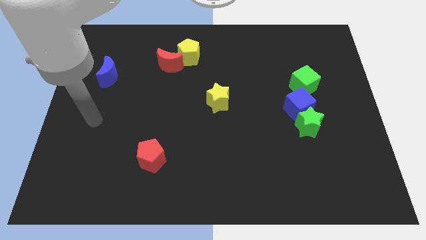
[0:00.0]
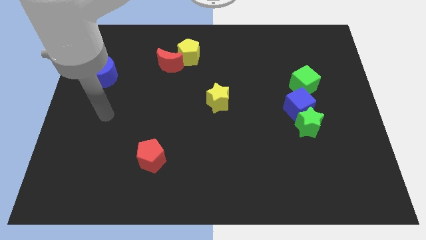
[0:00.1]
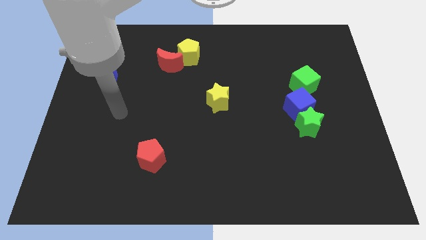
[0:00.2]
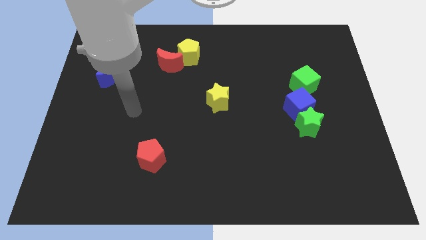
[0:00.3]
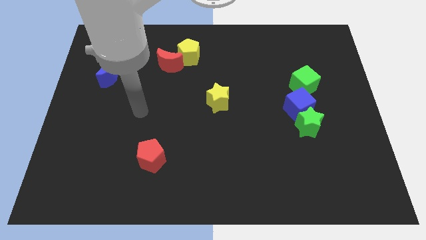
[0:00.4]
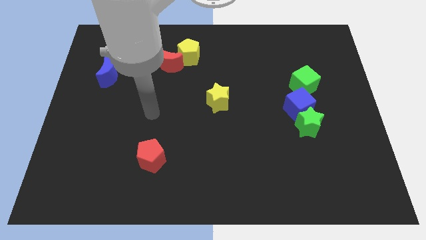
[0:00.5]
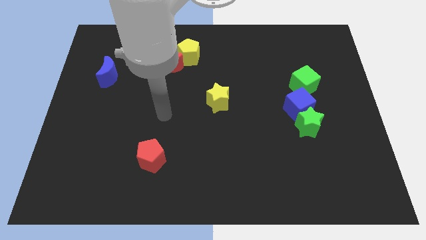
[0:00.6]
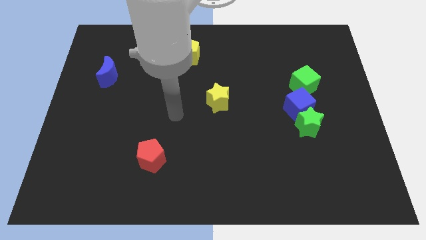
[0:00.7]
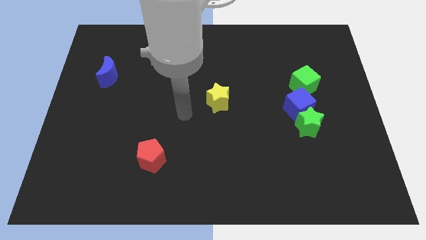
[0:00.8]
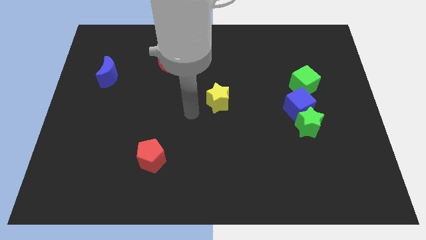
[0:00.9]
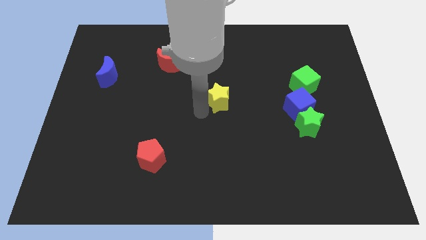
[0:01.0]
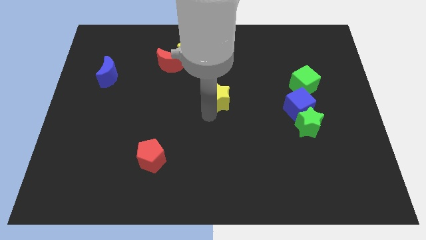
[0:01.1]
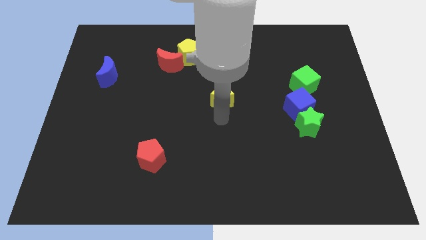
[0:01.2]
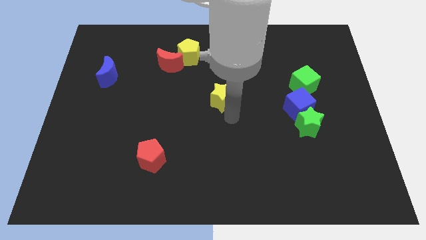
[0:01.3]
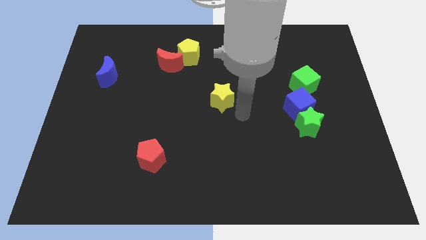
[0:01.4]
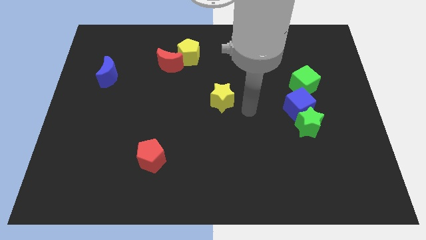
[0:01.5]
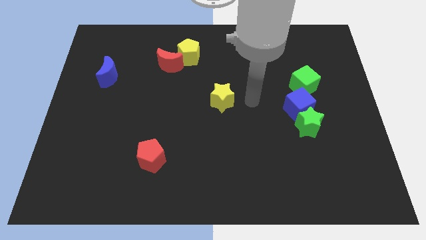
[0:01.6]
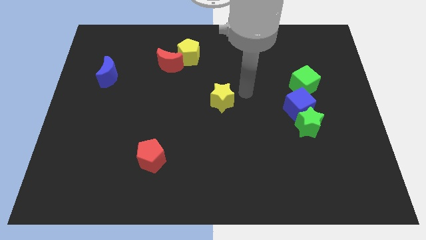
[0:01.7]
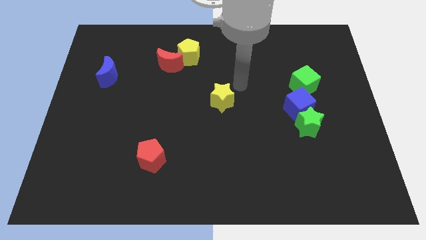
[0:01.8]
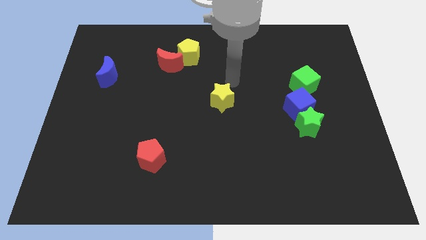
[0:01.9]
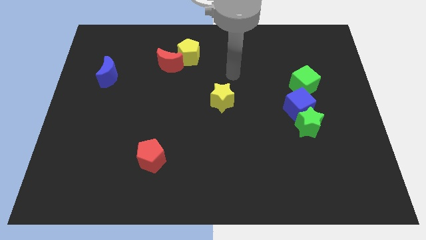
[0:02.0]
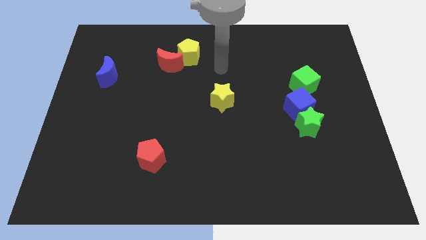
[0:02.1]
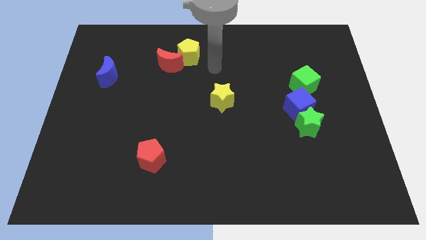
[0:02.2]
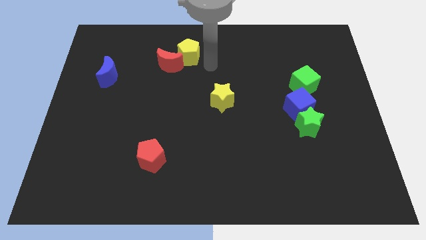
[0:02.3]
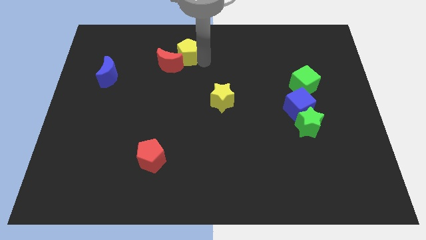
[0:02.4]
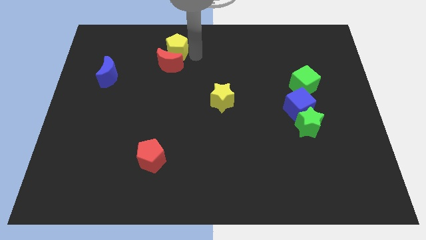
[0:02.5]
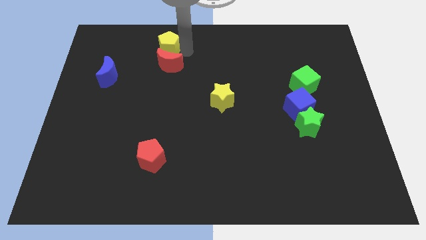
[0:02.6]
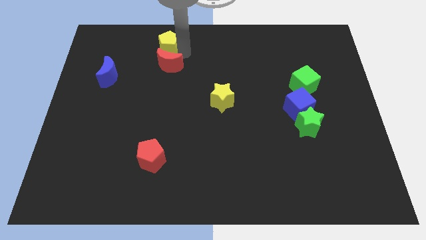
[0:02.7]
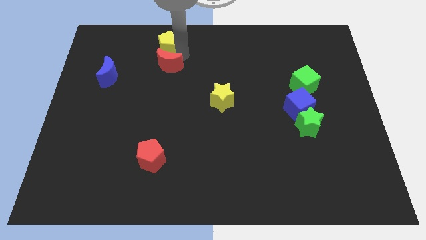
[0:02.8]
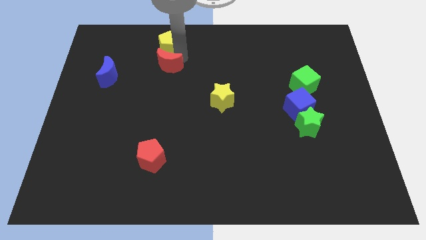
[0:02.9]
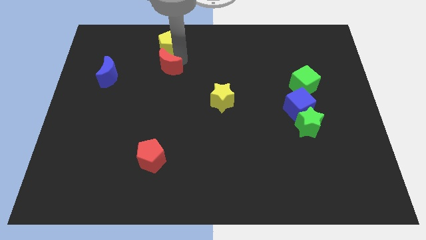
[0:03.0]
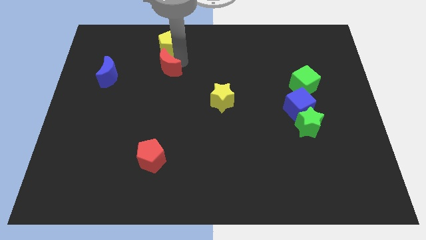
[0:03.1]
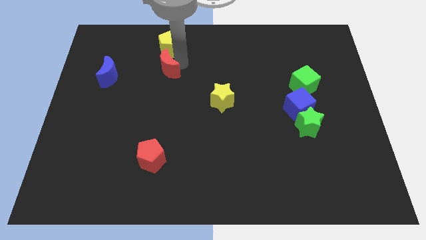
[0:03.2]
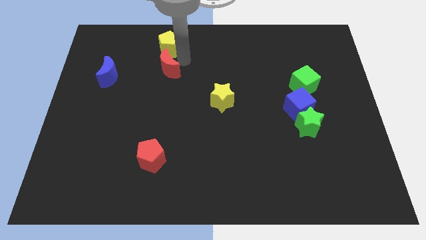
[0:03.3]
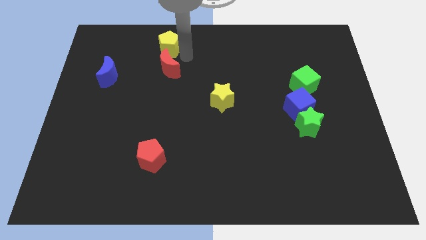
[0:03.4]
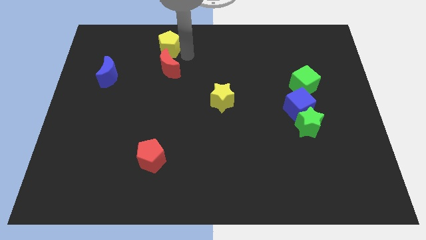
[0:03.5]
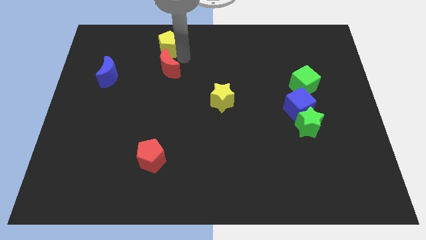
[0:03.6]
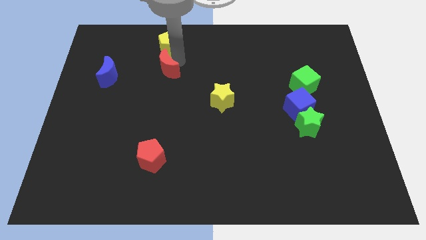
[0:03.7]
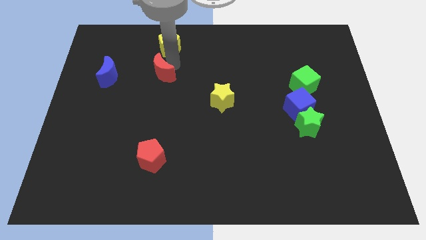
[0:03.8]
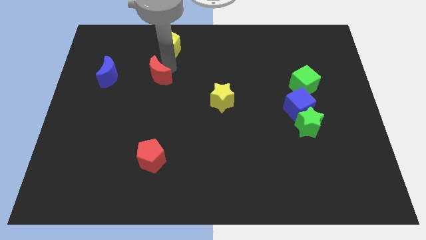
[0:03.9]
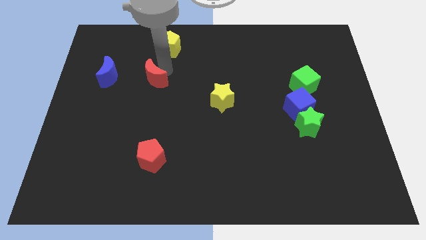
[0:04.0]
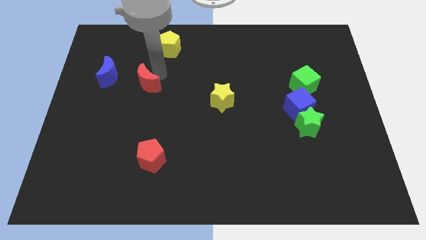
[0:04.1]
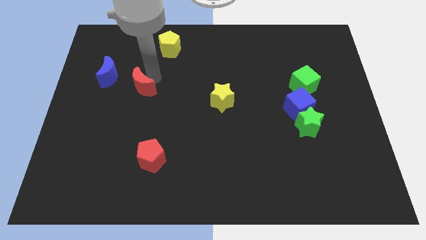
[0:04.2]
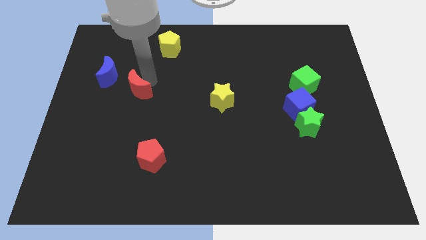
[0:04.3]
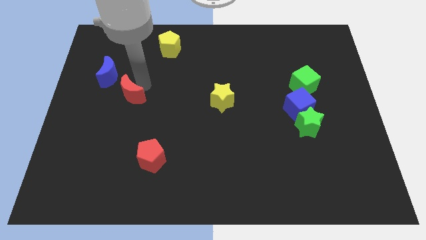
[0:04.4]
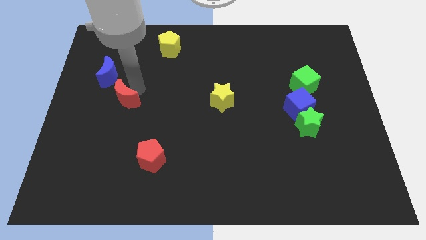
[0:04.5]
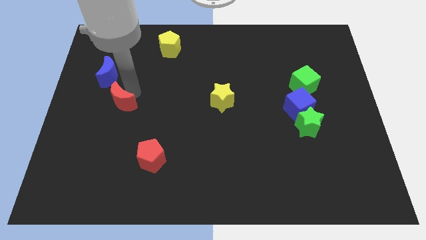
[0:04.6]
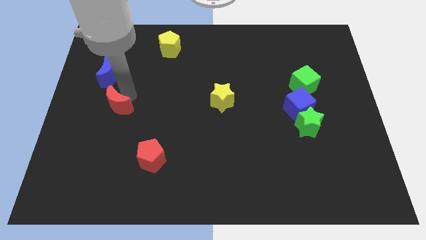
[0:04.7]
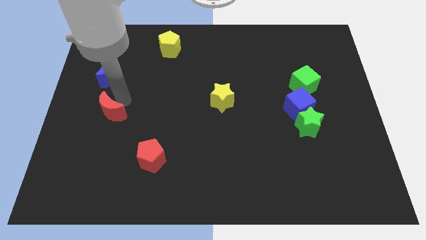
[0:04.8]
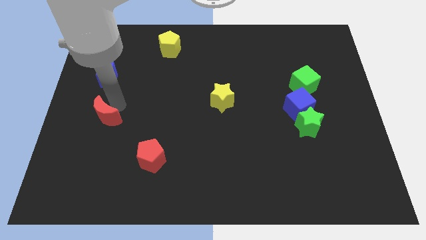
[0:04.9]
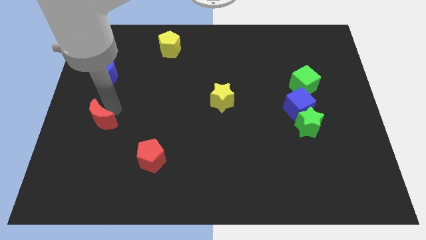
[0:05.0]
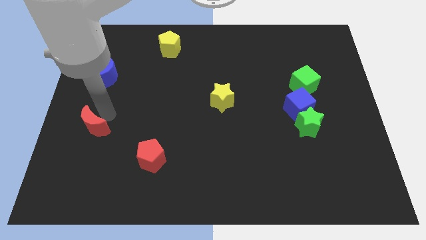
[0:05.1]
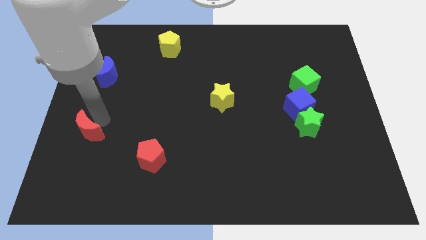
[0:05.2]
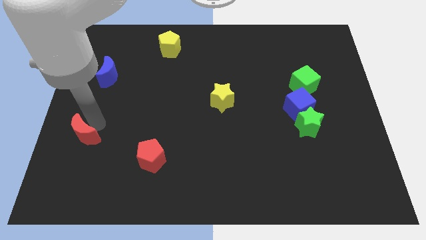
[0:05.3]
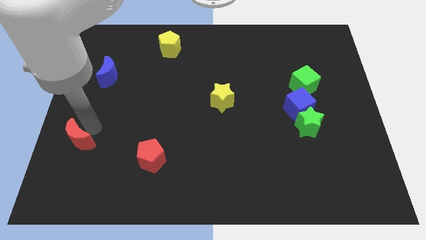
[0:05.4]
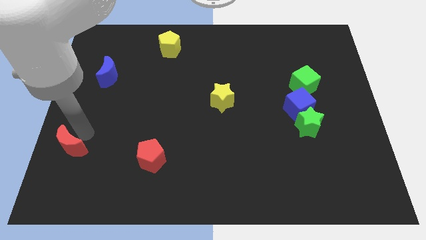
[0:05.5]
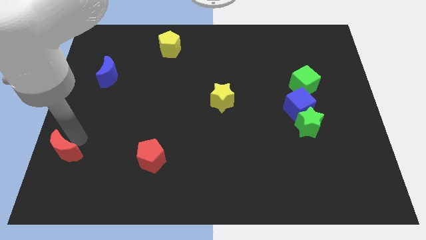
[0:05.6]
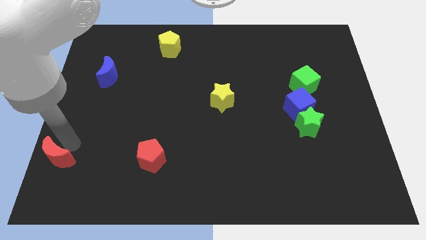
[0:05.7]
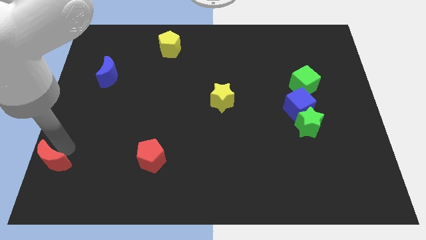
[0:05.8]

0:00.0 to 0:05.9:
slide the red moon to the bottom left

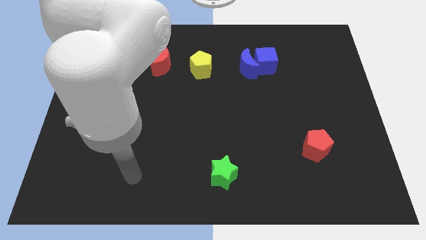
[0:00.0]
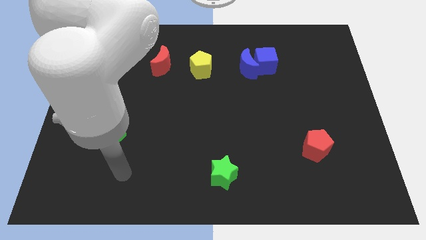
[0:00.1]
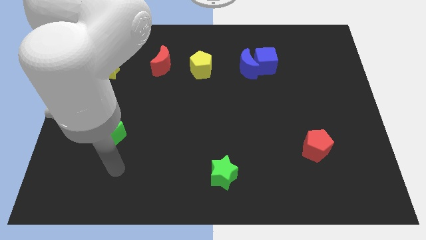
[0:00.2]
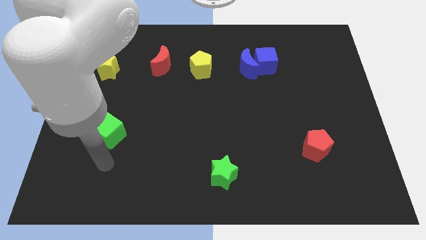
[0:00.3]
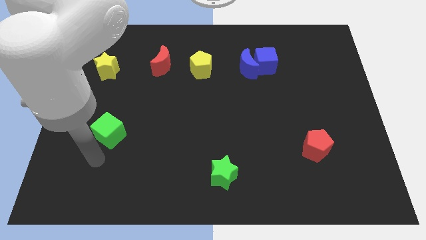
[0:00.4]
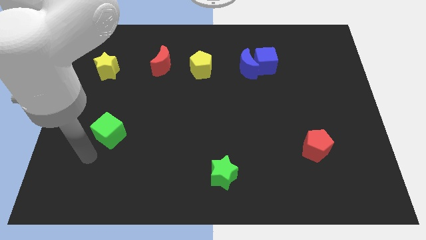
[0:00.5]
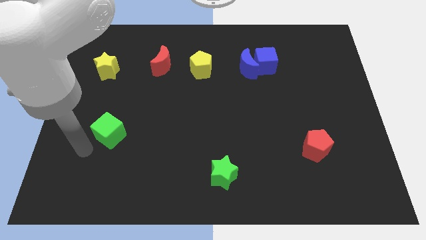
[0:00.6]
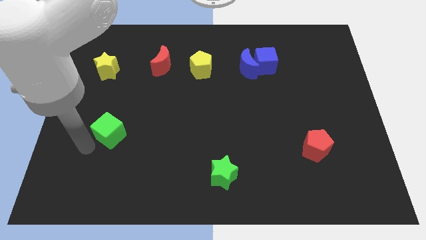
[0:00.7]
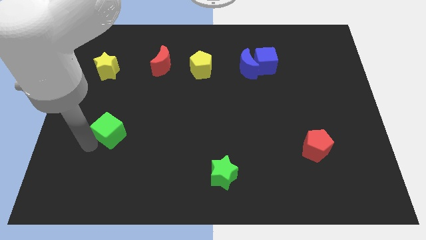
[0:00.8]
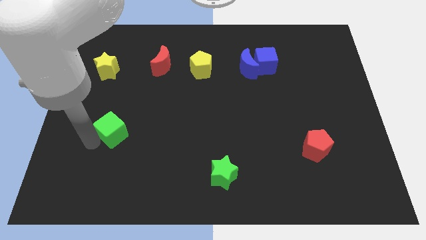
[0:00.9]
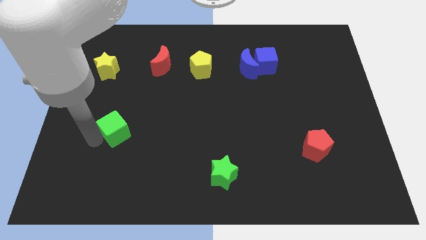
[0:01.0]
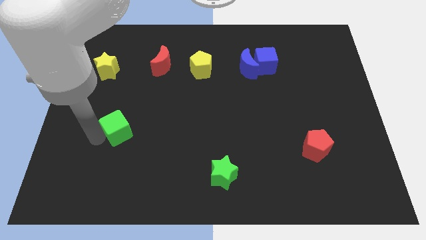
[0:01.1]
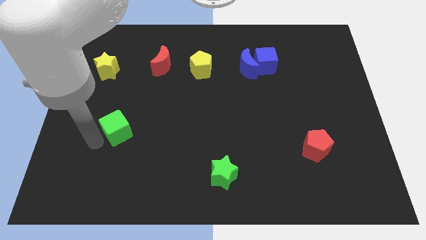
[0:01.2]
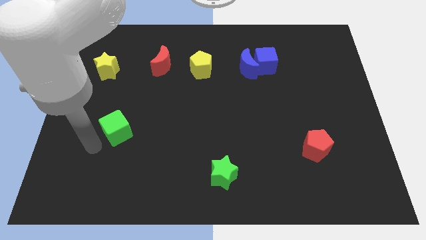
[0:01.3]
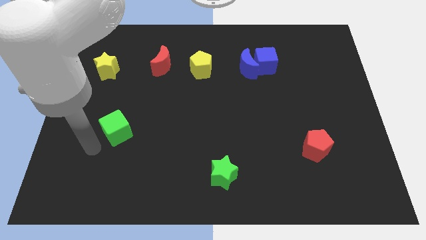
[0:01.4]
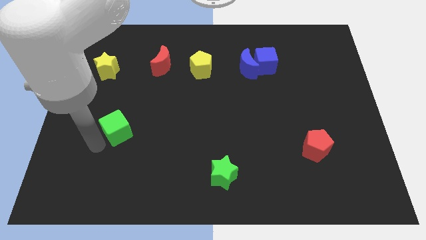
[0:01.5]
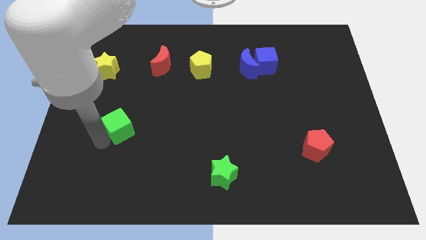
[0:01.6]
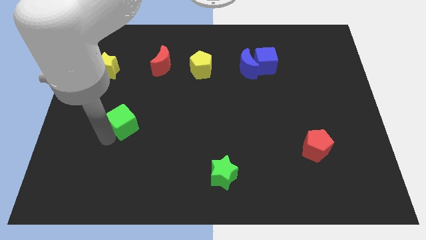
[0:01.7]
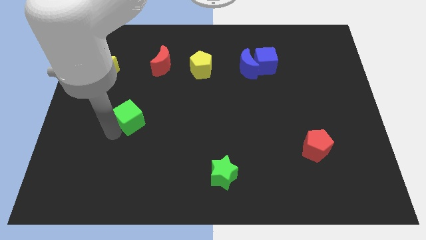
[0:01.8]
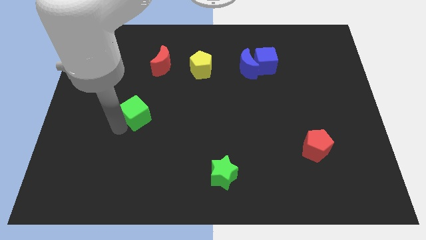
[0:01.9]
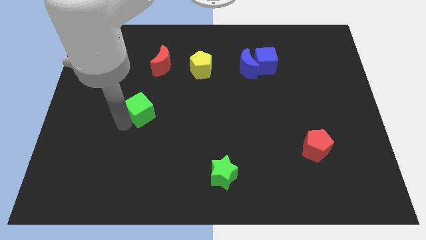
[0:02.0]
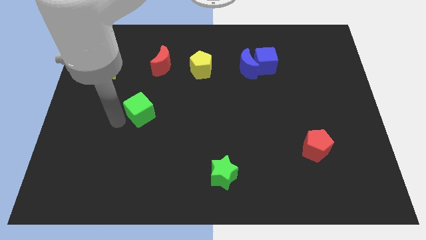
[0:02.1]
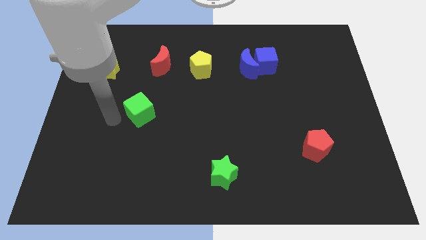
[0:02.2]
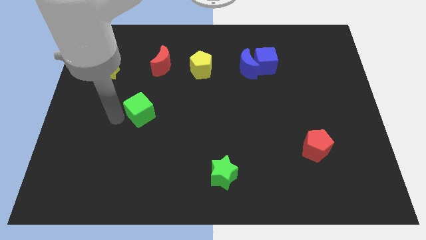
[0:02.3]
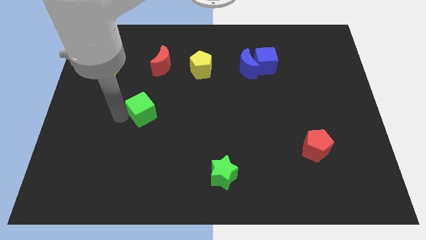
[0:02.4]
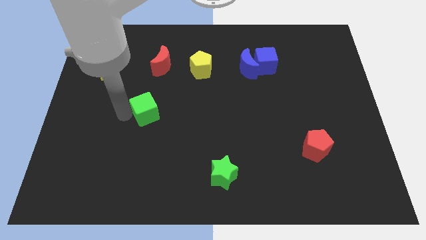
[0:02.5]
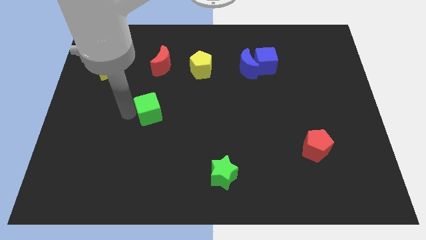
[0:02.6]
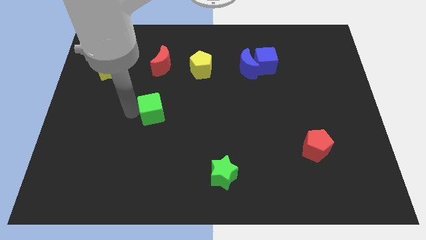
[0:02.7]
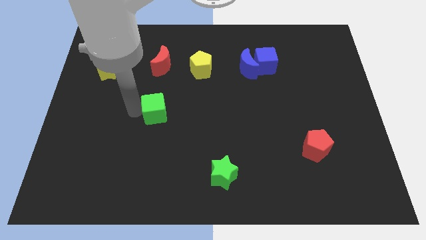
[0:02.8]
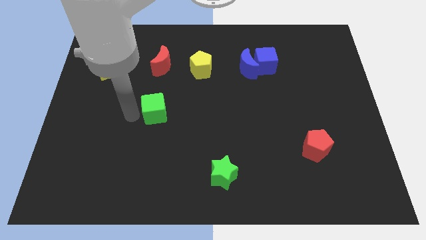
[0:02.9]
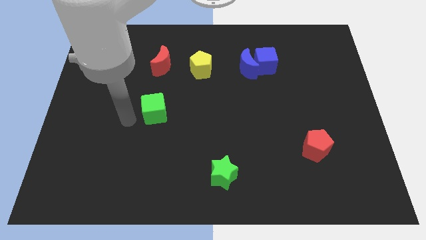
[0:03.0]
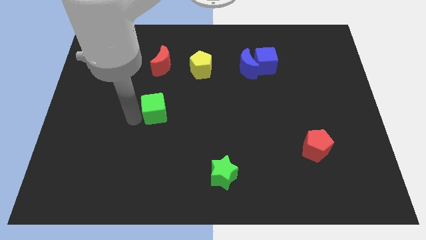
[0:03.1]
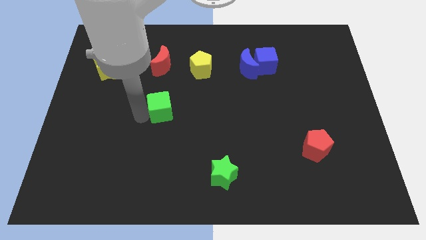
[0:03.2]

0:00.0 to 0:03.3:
slide the green cube to the center of the board
